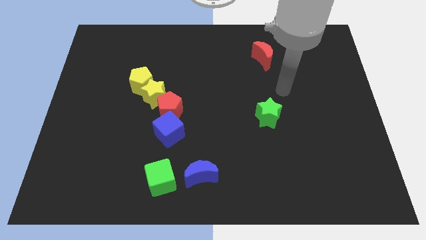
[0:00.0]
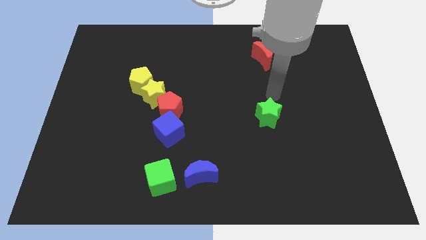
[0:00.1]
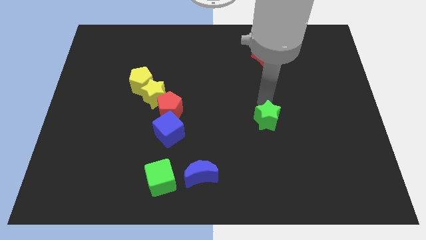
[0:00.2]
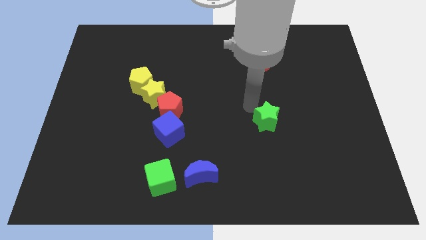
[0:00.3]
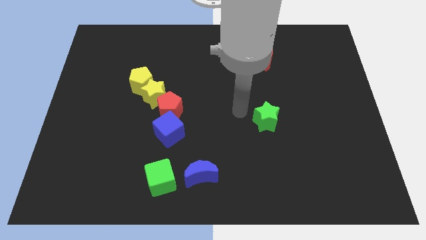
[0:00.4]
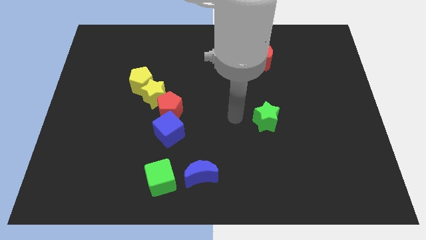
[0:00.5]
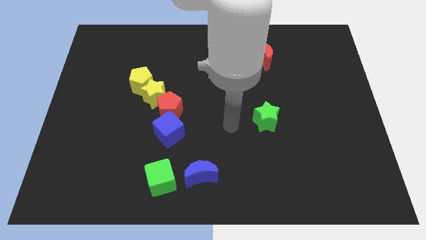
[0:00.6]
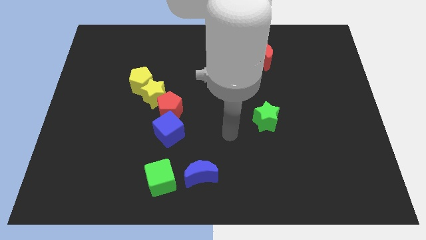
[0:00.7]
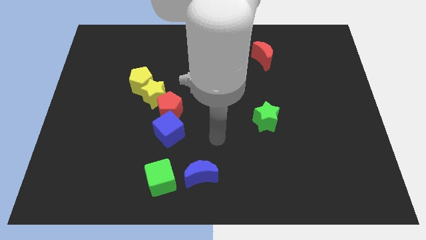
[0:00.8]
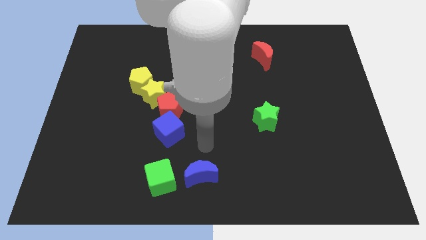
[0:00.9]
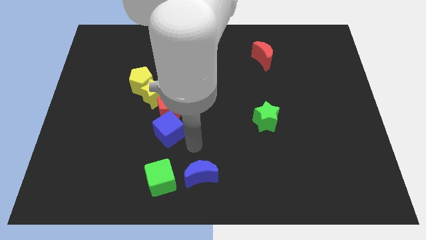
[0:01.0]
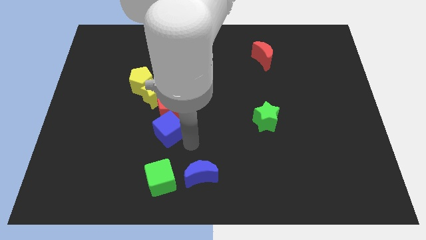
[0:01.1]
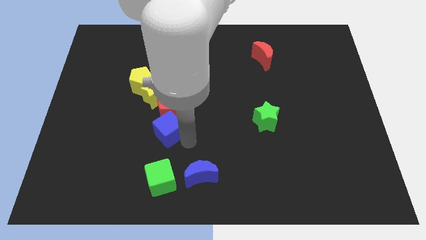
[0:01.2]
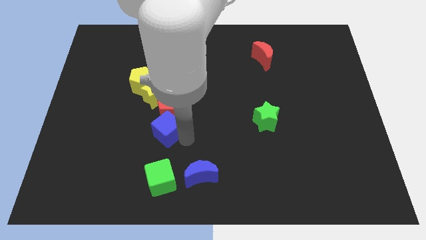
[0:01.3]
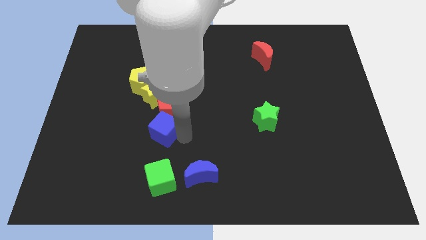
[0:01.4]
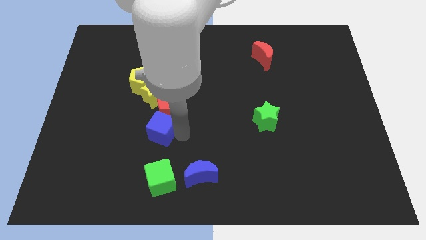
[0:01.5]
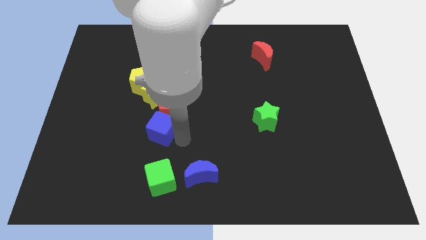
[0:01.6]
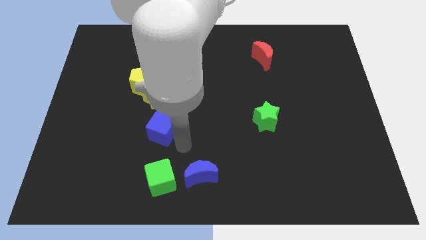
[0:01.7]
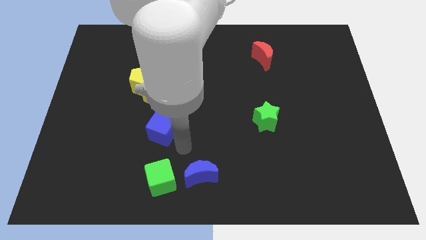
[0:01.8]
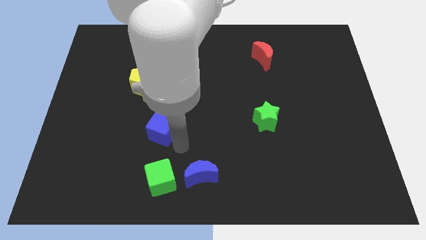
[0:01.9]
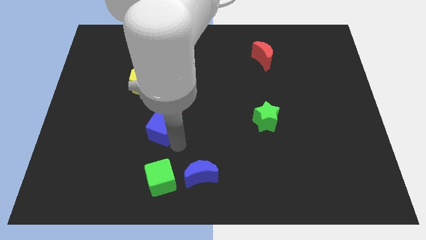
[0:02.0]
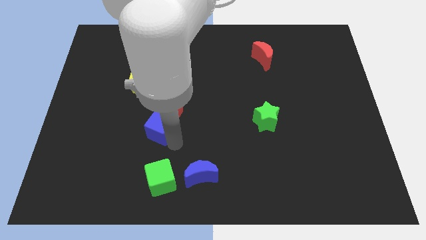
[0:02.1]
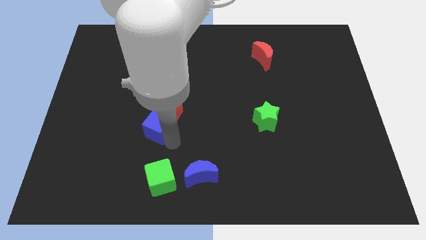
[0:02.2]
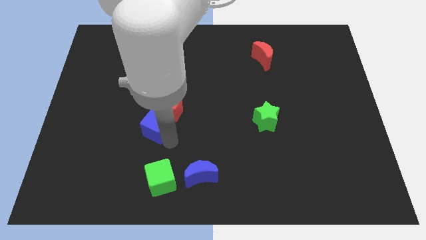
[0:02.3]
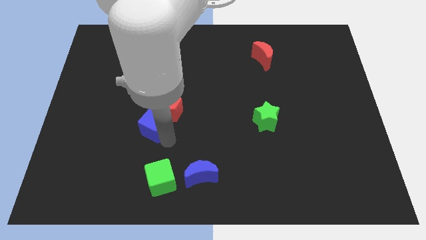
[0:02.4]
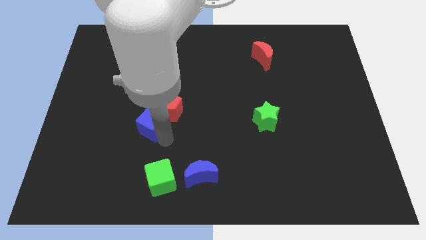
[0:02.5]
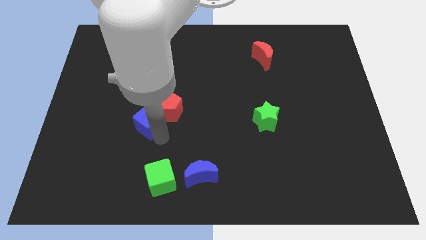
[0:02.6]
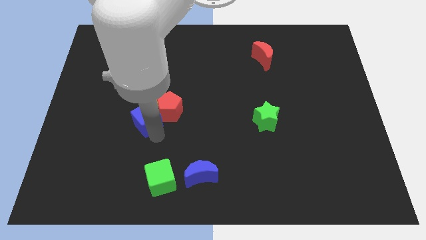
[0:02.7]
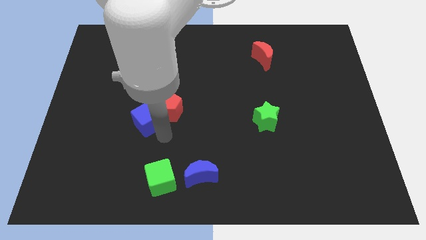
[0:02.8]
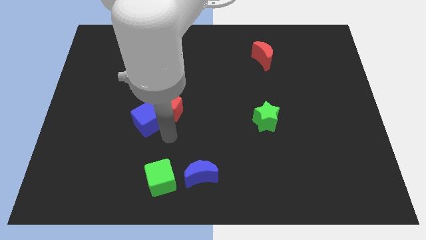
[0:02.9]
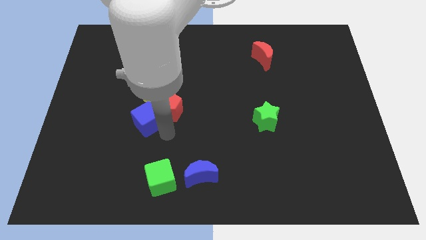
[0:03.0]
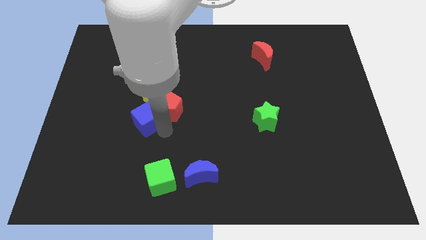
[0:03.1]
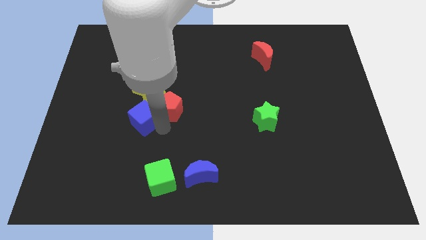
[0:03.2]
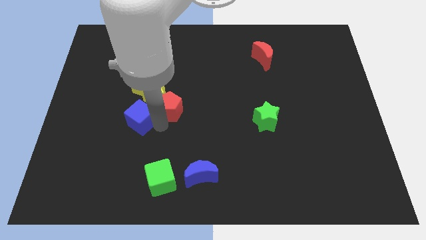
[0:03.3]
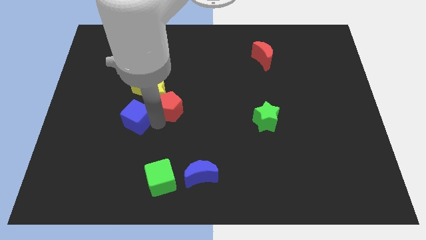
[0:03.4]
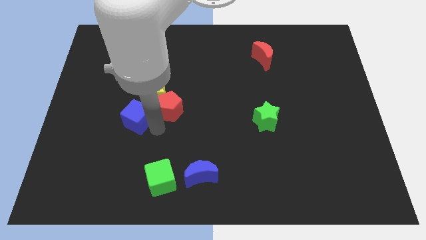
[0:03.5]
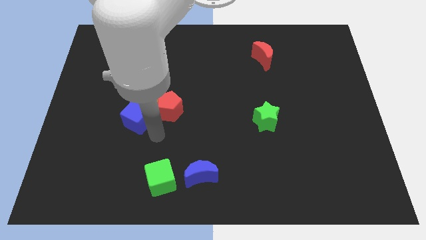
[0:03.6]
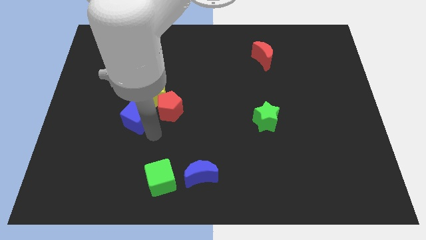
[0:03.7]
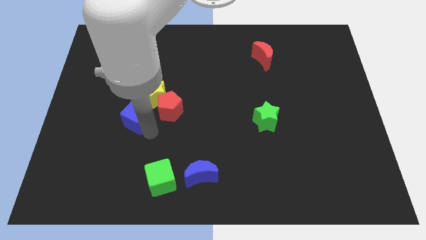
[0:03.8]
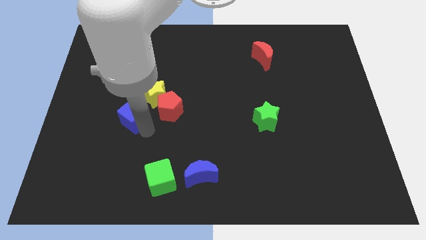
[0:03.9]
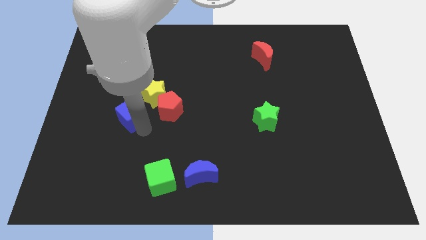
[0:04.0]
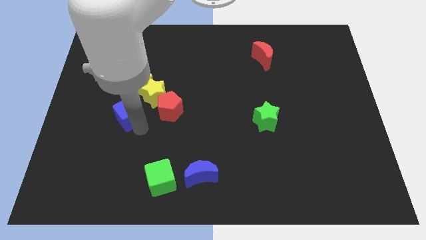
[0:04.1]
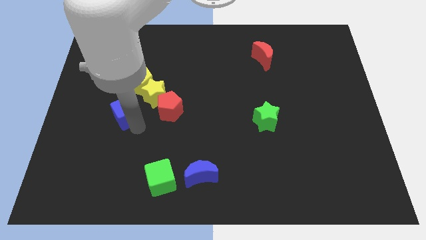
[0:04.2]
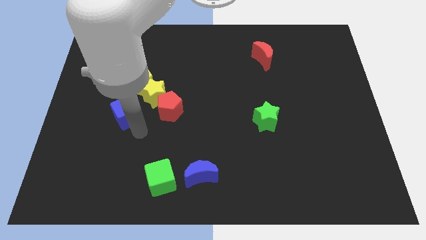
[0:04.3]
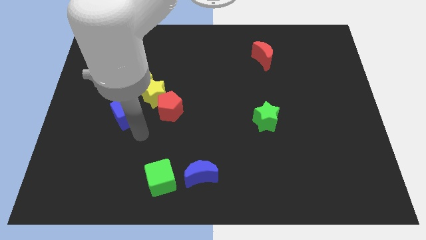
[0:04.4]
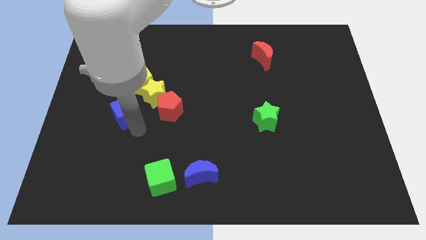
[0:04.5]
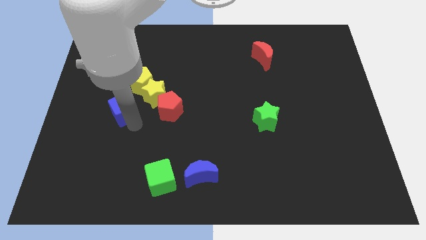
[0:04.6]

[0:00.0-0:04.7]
move the blue cube to the bottom left of the yellow pentagon

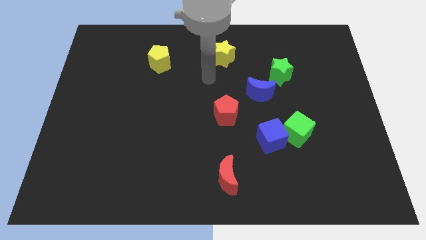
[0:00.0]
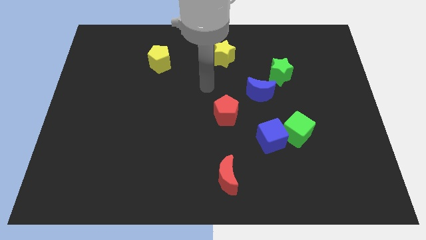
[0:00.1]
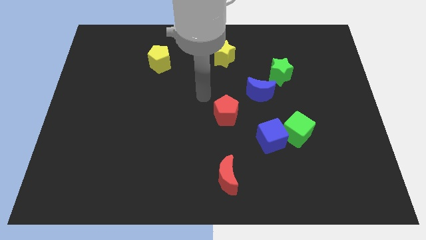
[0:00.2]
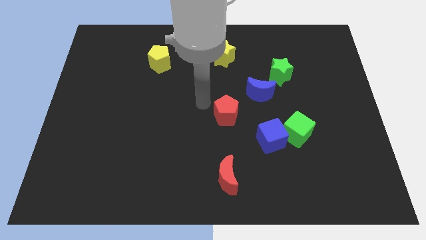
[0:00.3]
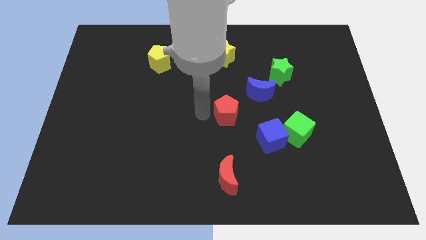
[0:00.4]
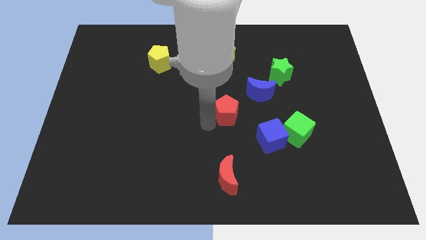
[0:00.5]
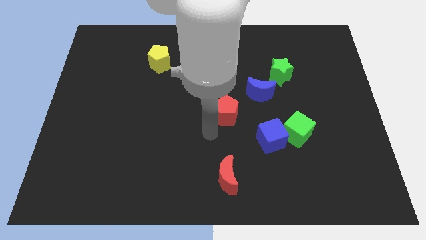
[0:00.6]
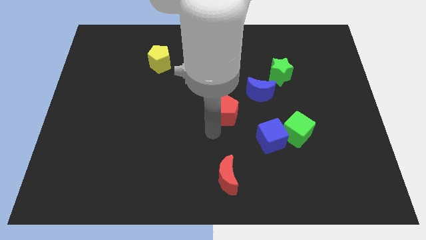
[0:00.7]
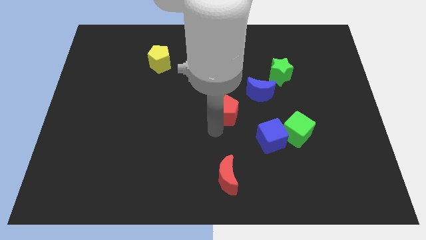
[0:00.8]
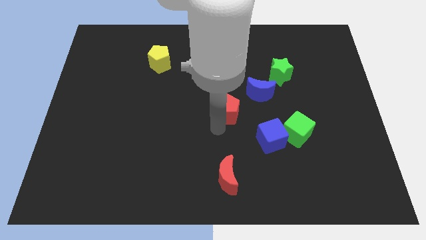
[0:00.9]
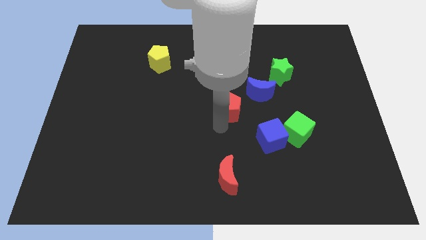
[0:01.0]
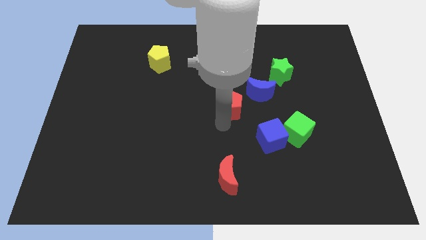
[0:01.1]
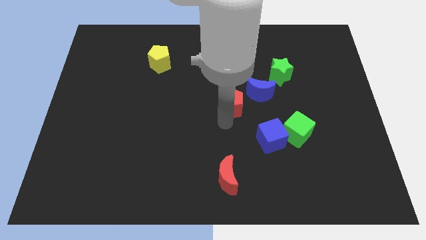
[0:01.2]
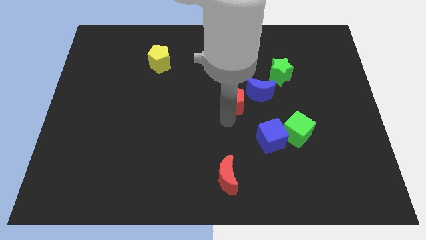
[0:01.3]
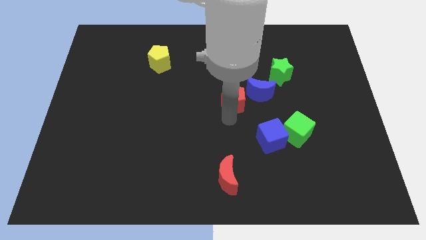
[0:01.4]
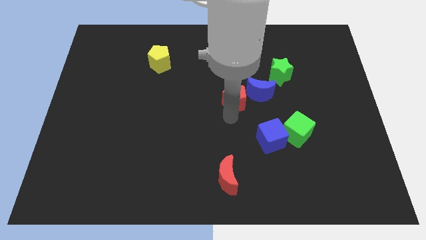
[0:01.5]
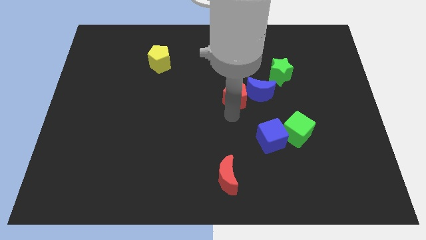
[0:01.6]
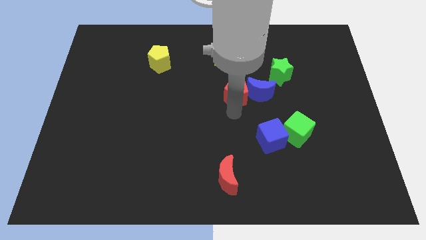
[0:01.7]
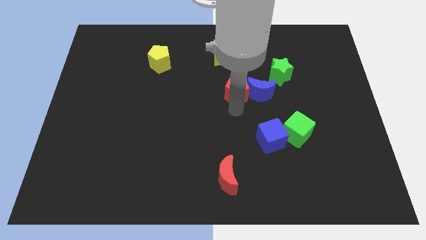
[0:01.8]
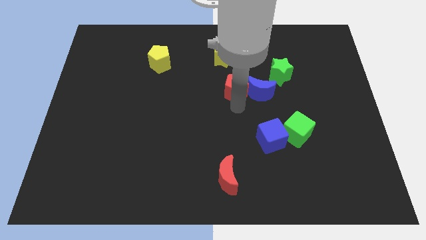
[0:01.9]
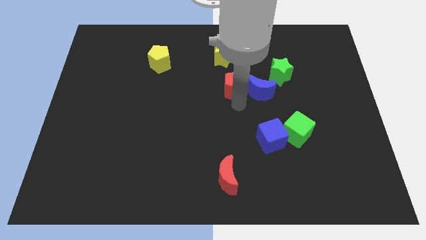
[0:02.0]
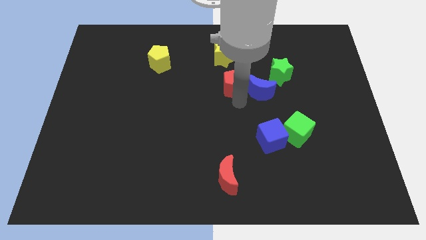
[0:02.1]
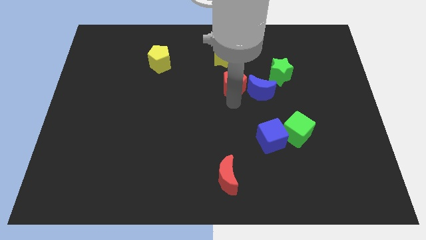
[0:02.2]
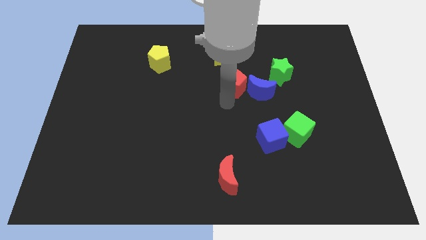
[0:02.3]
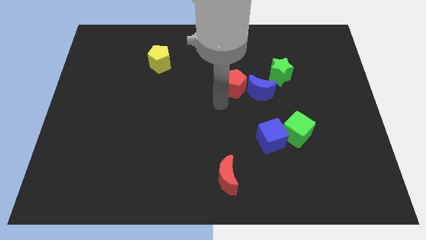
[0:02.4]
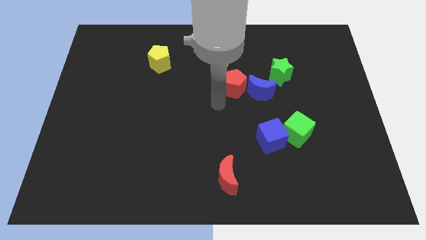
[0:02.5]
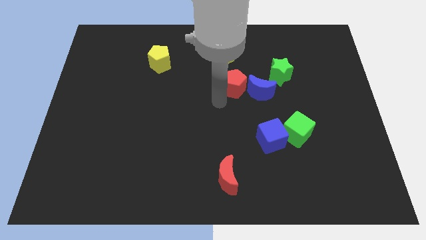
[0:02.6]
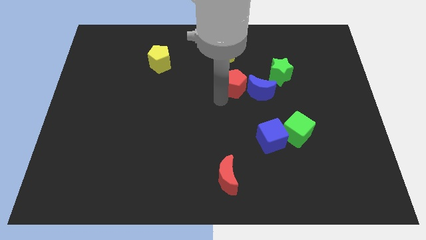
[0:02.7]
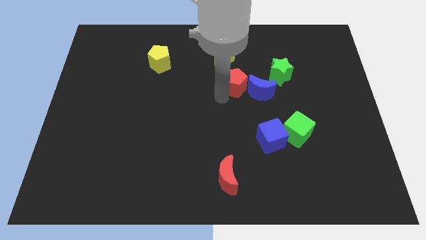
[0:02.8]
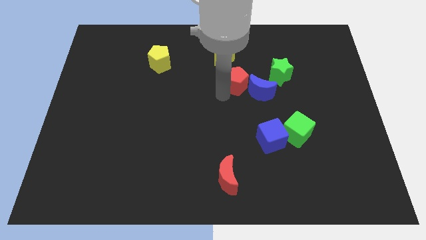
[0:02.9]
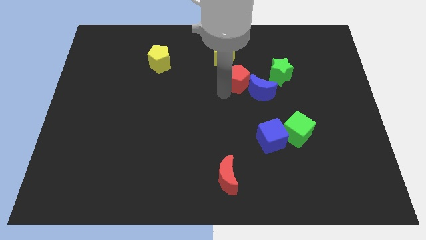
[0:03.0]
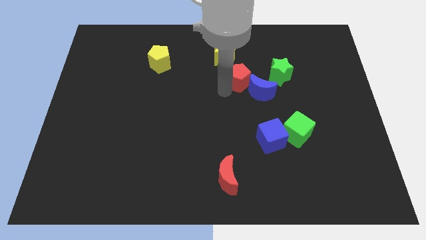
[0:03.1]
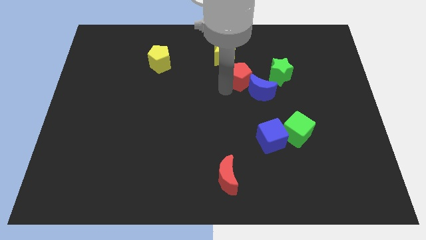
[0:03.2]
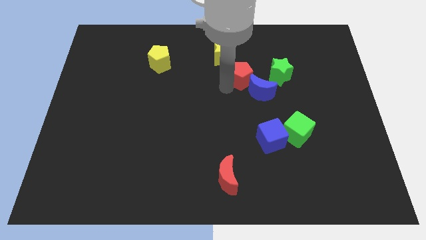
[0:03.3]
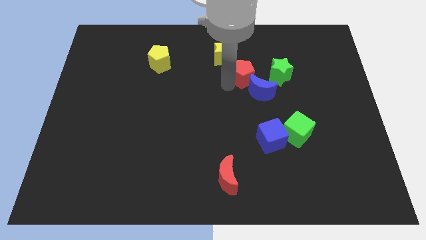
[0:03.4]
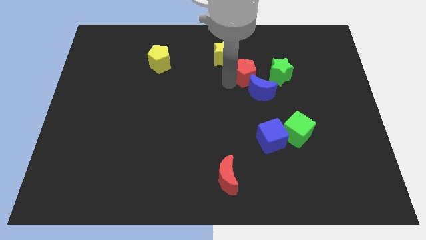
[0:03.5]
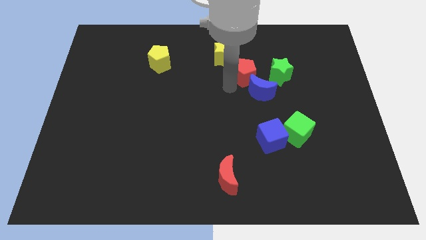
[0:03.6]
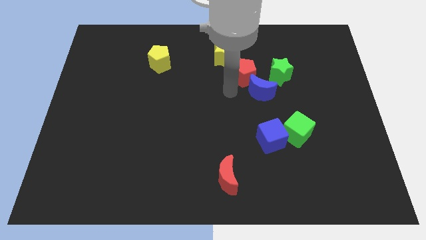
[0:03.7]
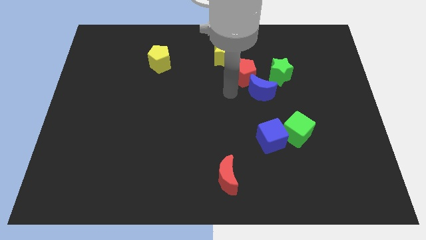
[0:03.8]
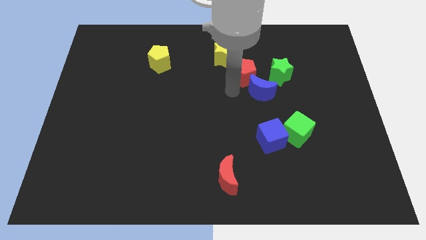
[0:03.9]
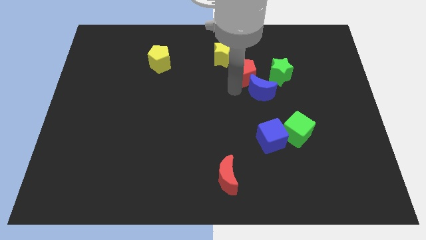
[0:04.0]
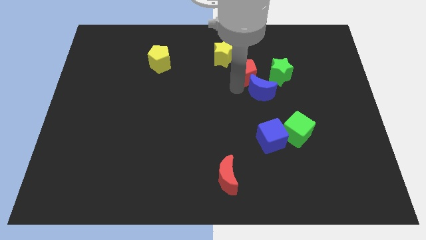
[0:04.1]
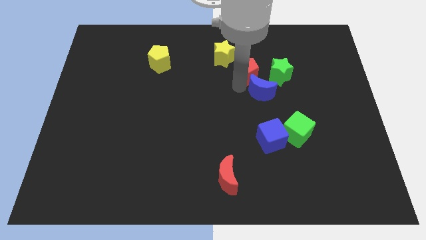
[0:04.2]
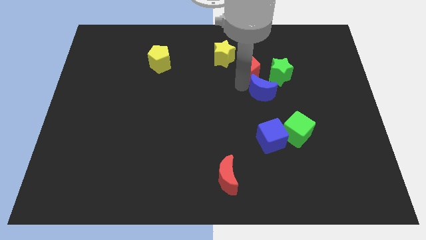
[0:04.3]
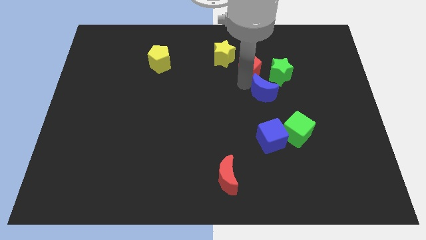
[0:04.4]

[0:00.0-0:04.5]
push the red pentagon to the top left of the green star
